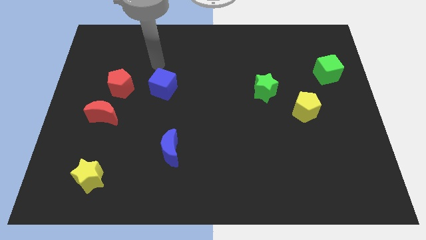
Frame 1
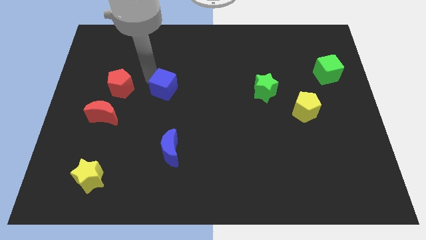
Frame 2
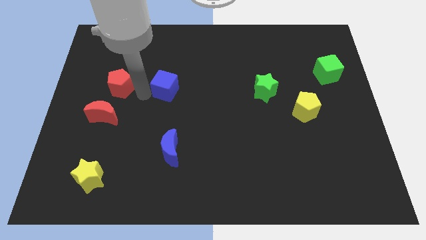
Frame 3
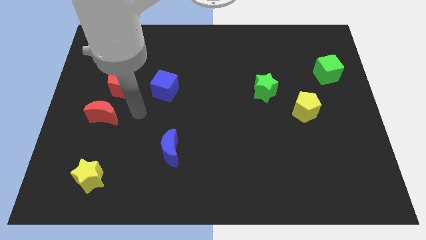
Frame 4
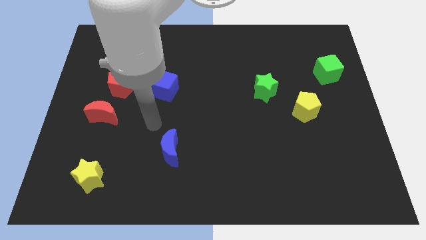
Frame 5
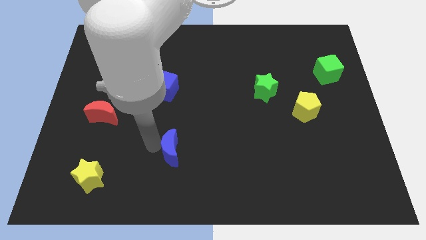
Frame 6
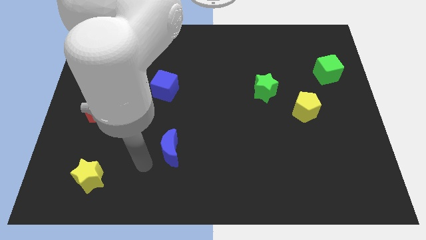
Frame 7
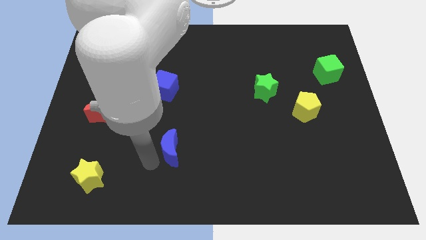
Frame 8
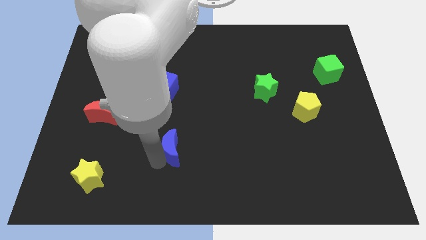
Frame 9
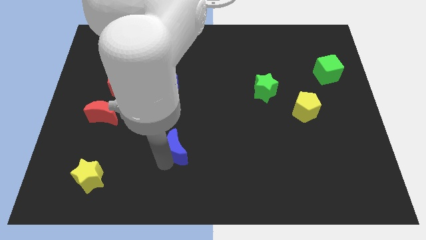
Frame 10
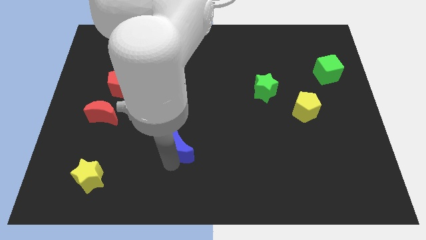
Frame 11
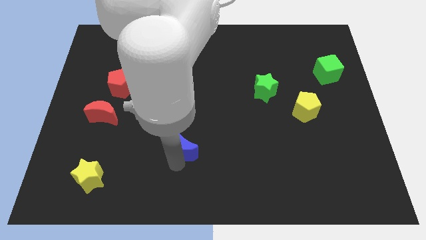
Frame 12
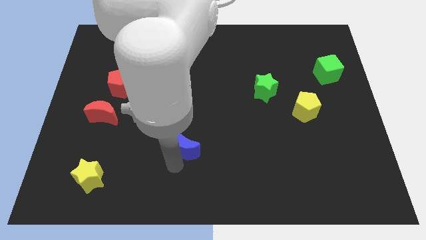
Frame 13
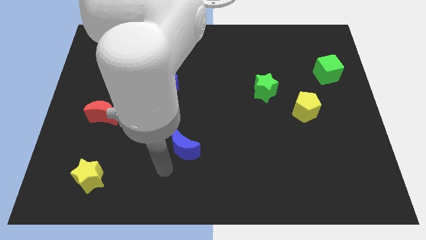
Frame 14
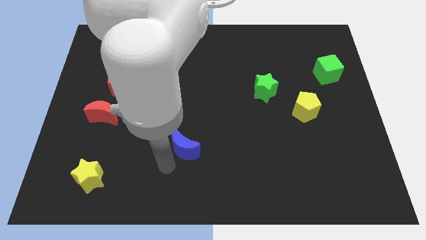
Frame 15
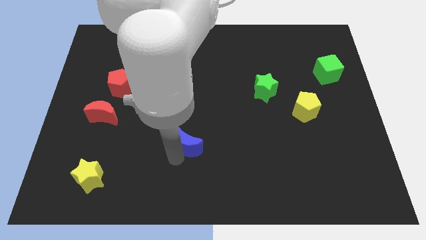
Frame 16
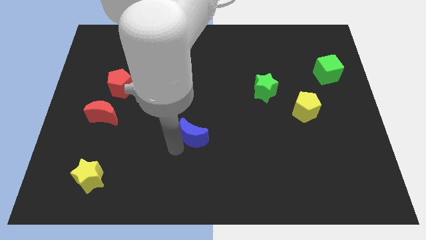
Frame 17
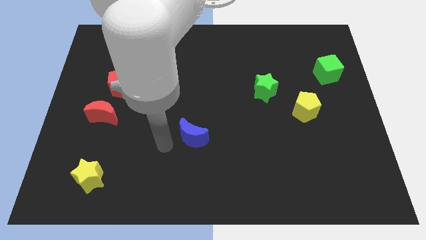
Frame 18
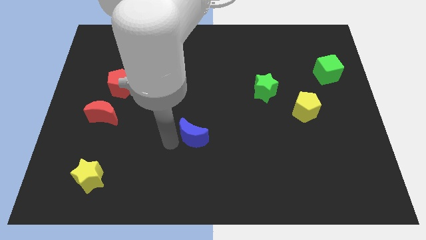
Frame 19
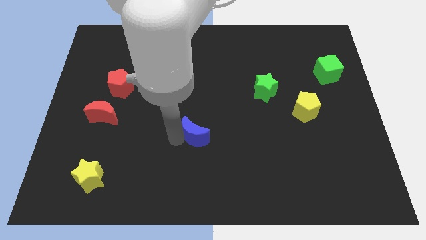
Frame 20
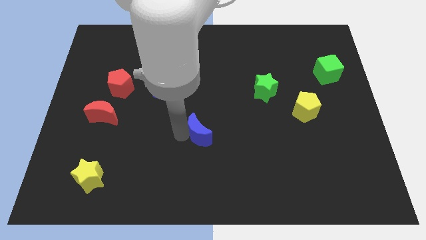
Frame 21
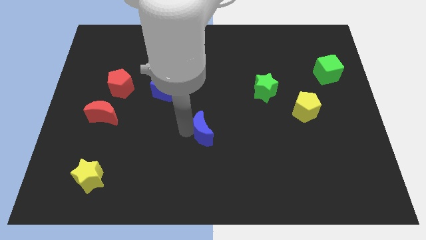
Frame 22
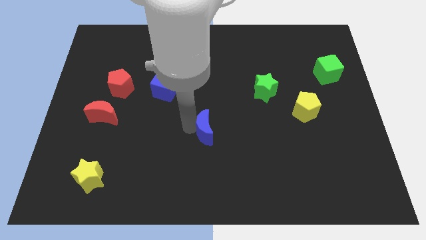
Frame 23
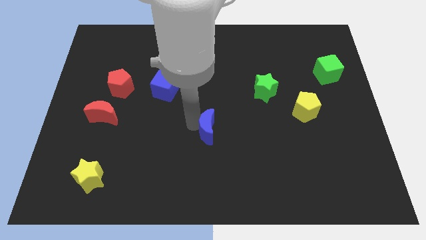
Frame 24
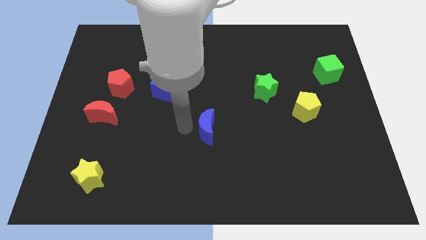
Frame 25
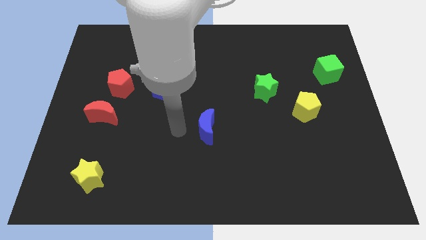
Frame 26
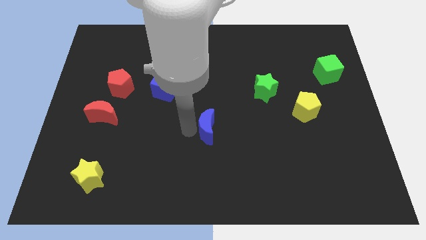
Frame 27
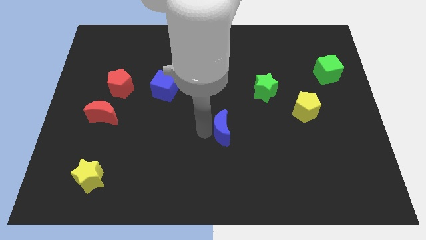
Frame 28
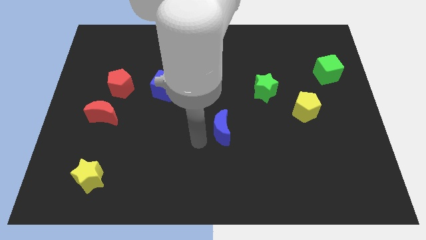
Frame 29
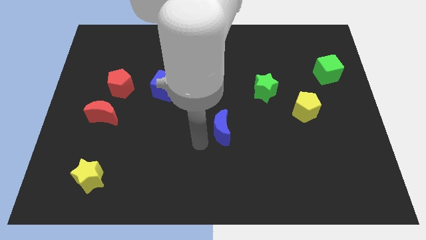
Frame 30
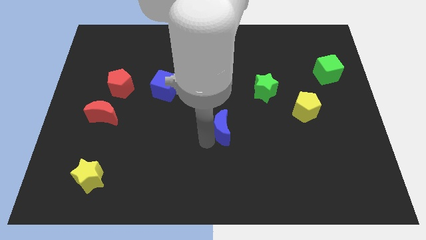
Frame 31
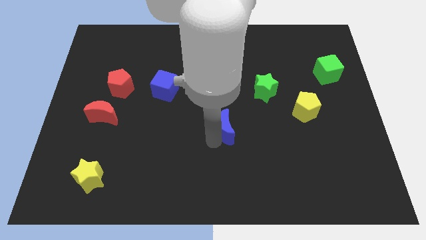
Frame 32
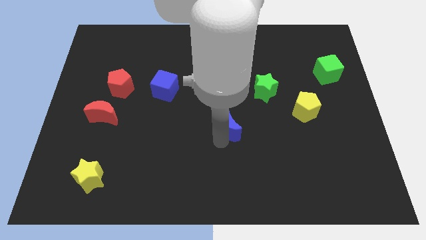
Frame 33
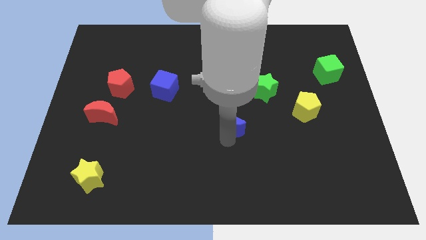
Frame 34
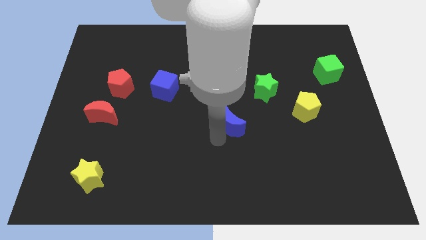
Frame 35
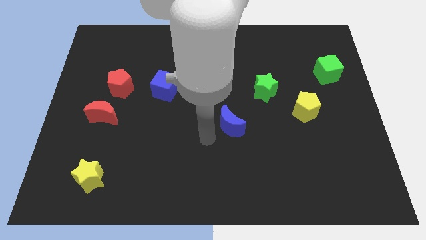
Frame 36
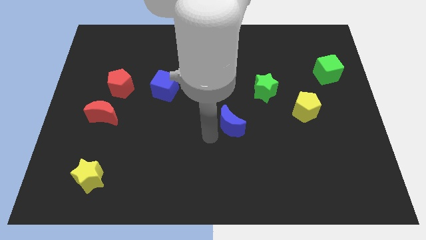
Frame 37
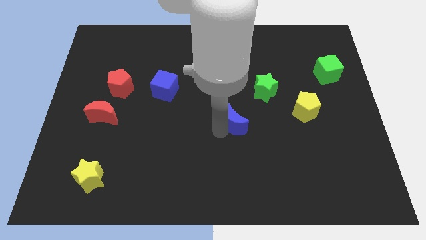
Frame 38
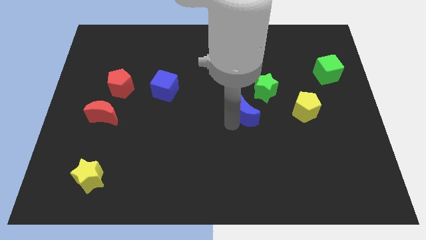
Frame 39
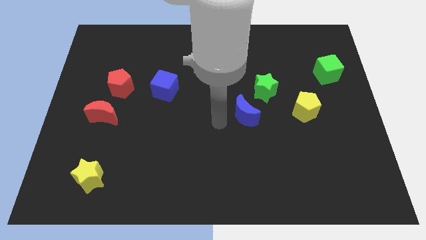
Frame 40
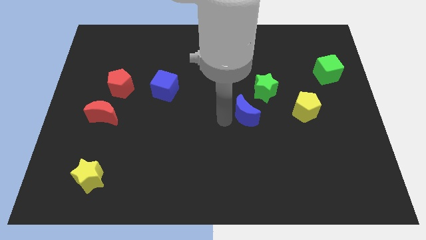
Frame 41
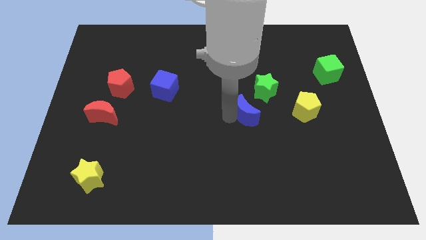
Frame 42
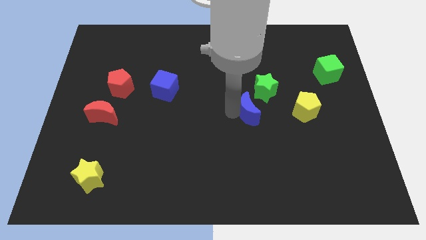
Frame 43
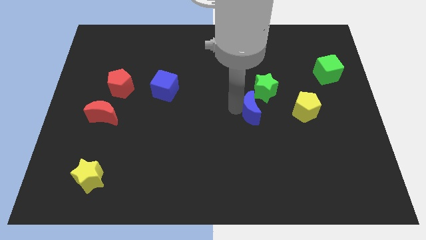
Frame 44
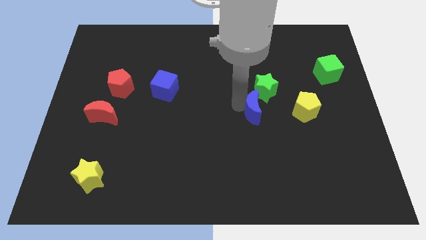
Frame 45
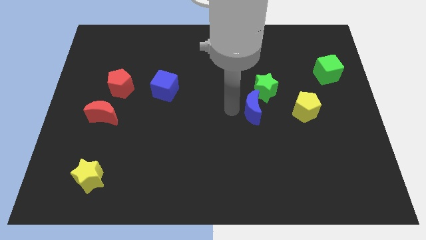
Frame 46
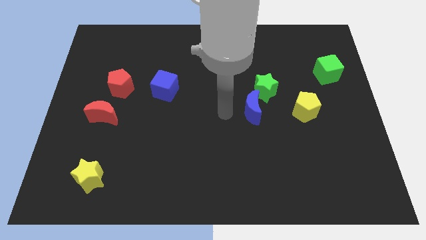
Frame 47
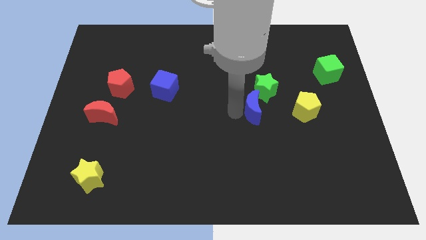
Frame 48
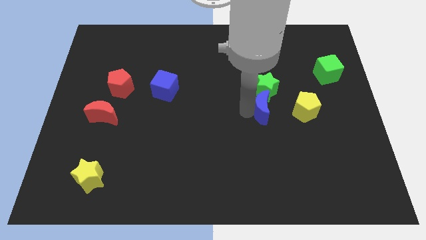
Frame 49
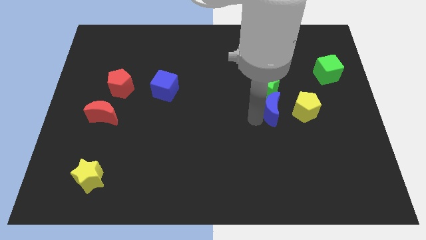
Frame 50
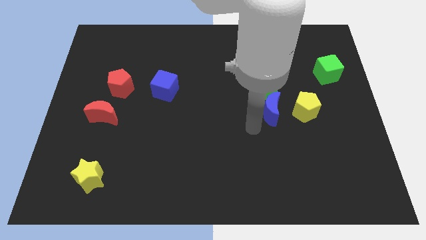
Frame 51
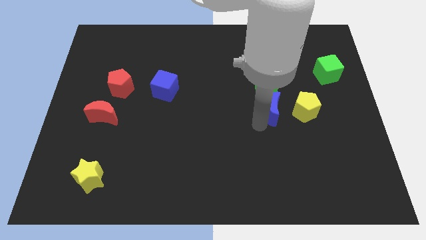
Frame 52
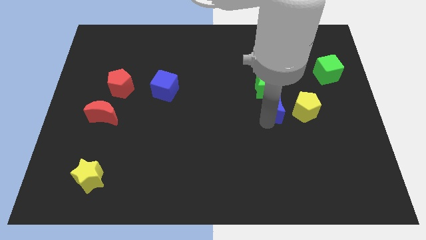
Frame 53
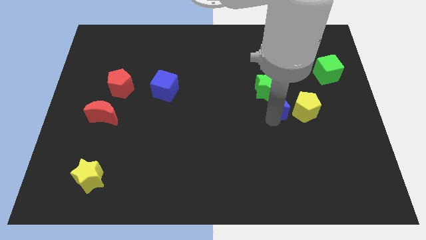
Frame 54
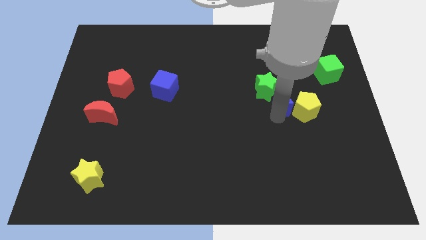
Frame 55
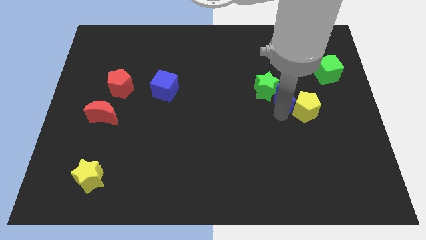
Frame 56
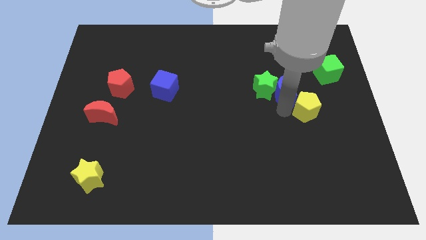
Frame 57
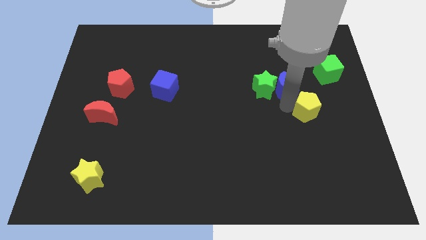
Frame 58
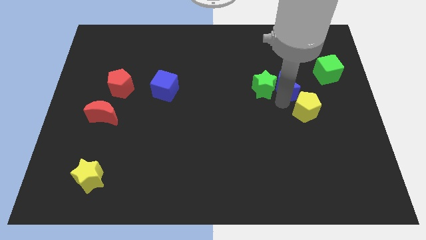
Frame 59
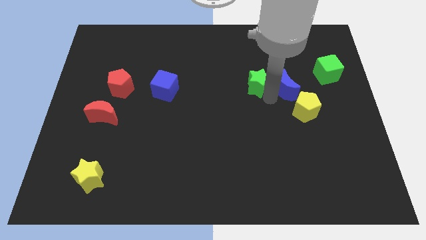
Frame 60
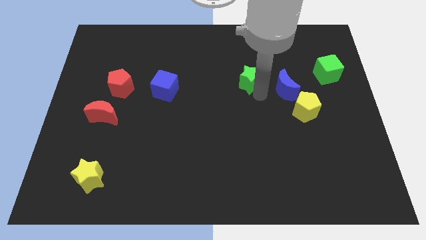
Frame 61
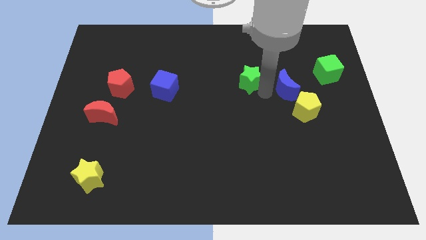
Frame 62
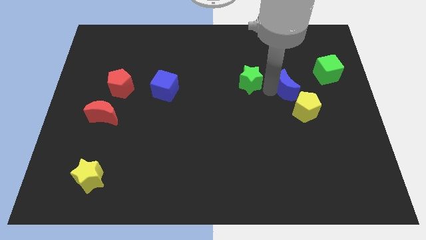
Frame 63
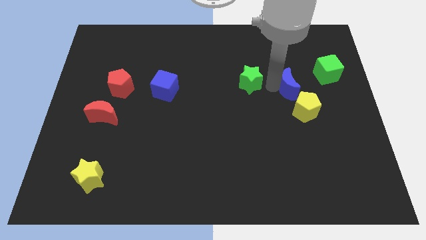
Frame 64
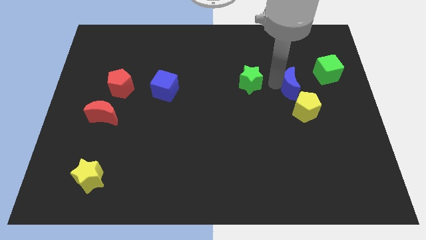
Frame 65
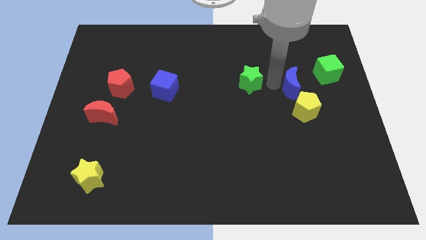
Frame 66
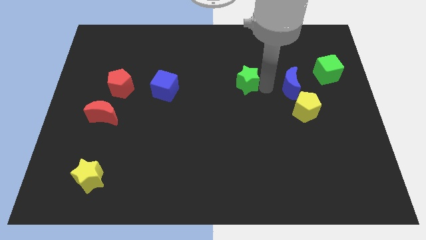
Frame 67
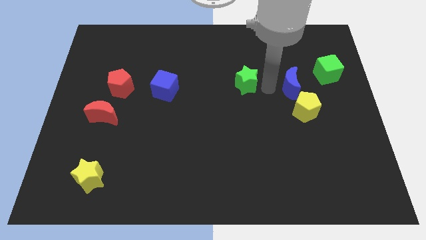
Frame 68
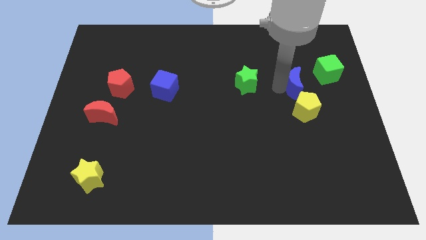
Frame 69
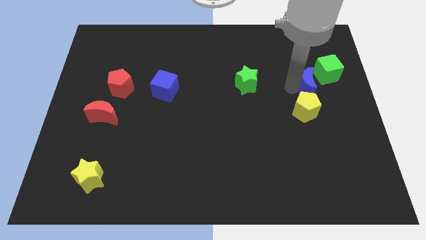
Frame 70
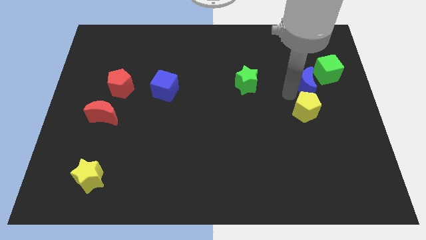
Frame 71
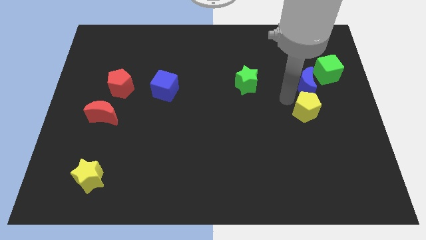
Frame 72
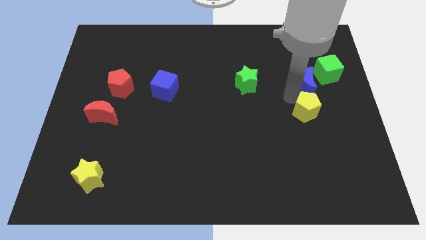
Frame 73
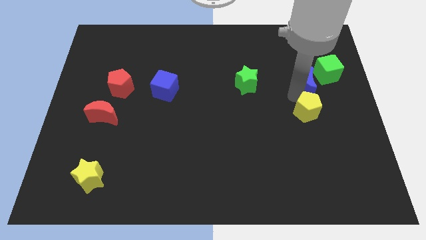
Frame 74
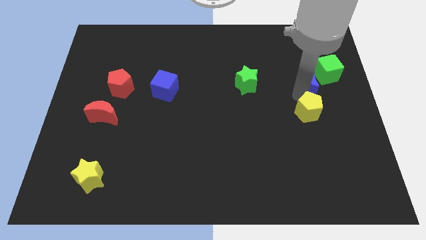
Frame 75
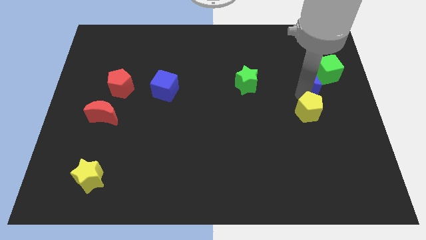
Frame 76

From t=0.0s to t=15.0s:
put the blue moon next to the green cube
